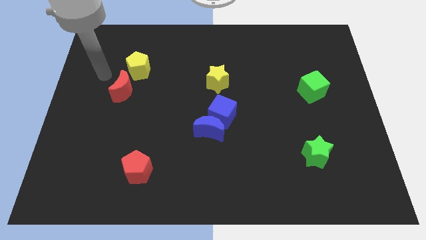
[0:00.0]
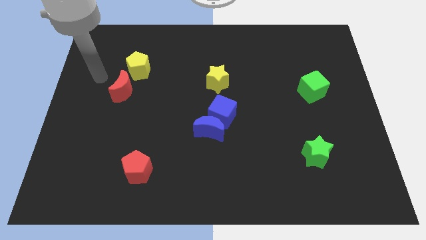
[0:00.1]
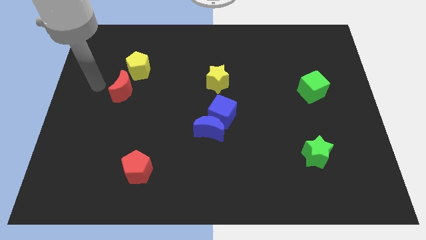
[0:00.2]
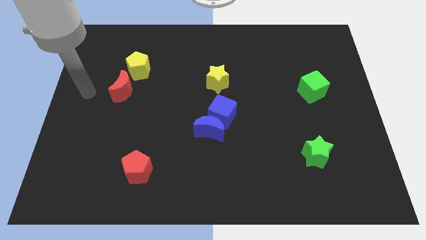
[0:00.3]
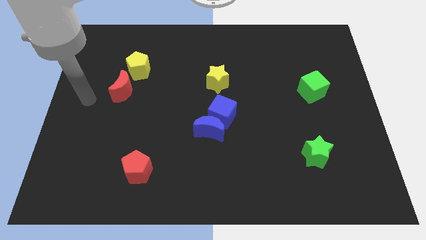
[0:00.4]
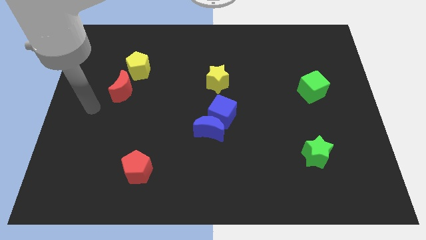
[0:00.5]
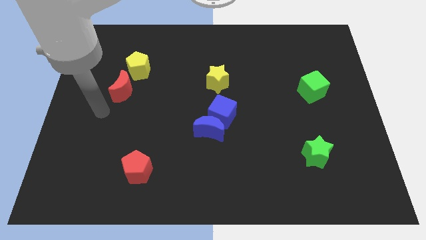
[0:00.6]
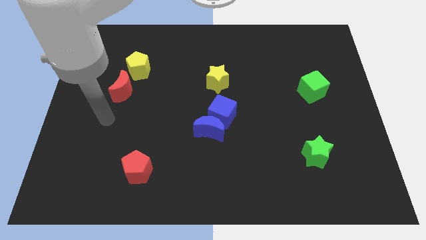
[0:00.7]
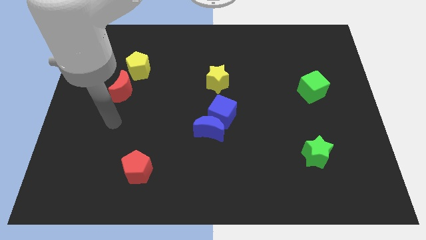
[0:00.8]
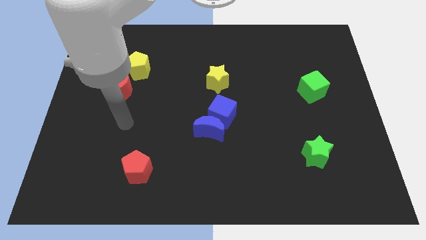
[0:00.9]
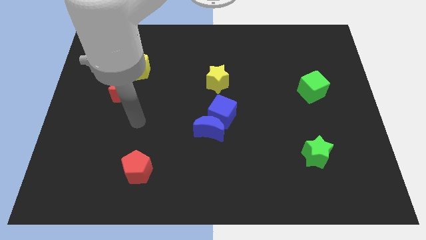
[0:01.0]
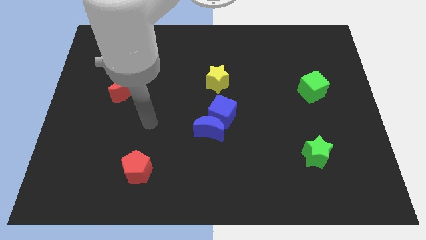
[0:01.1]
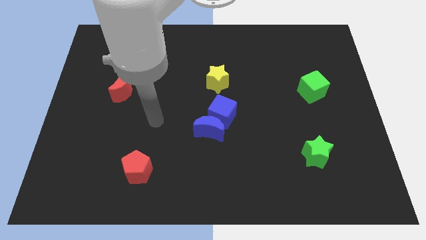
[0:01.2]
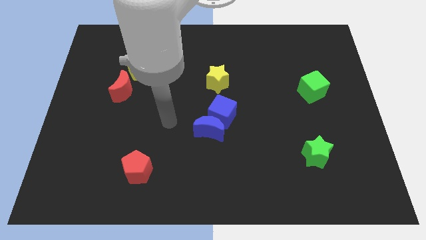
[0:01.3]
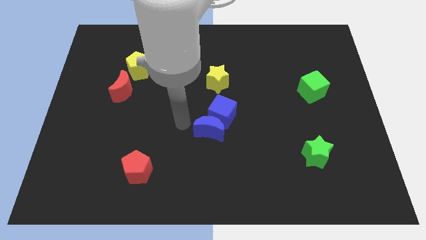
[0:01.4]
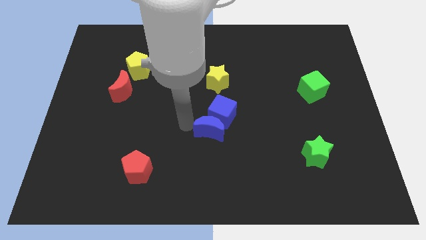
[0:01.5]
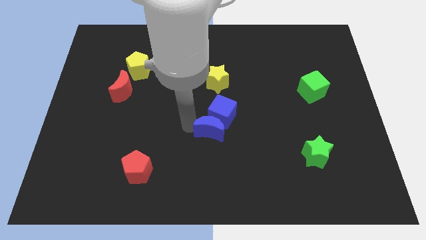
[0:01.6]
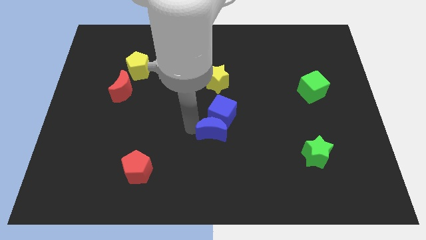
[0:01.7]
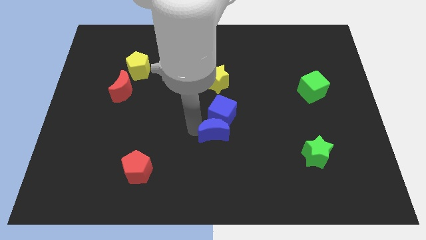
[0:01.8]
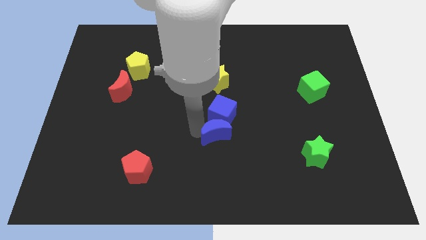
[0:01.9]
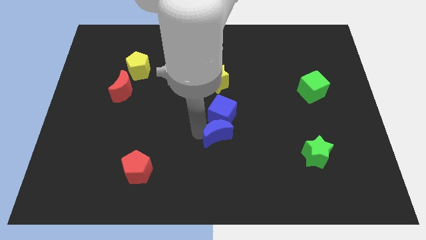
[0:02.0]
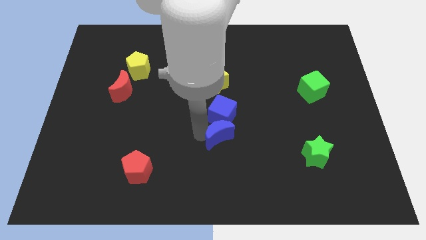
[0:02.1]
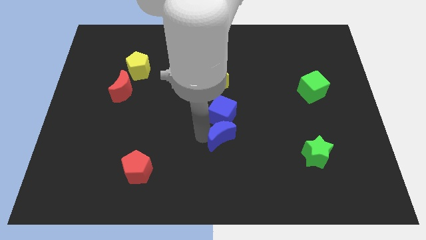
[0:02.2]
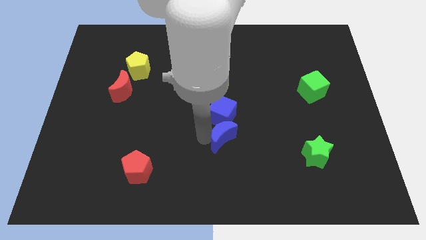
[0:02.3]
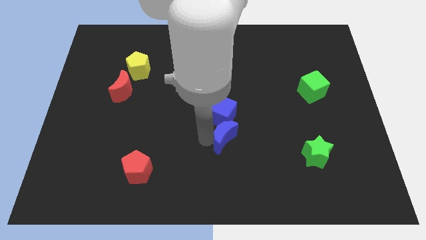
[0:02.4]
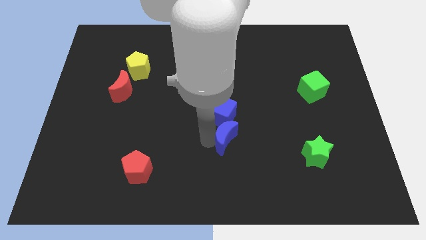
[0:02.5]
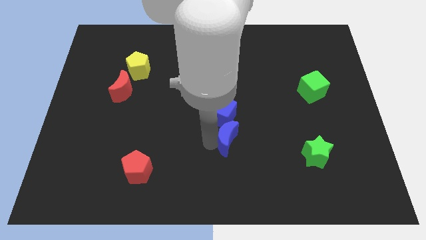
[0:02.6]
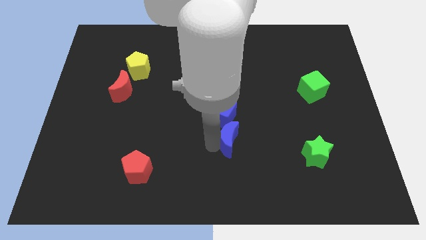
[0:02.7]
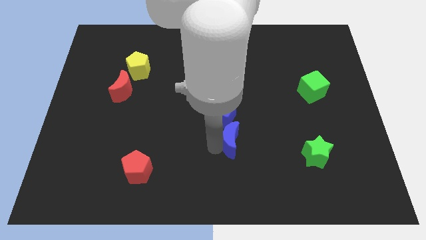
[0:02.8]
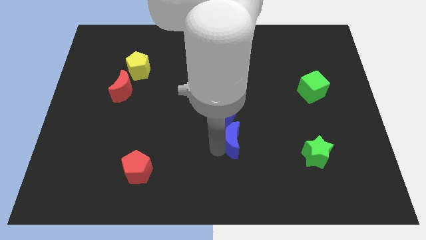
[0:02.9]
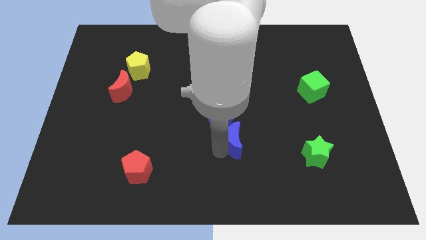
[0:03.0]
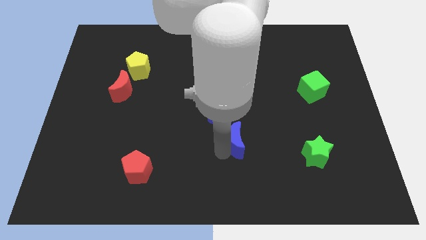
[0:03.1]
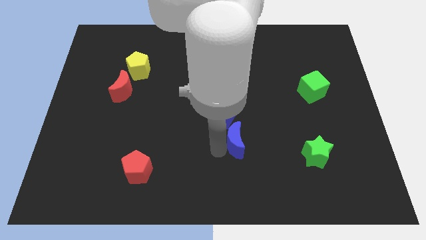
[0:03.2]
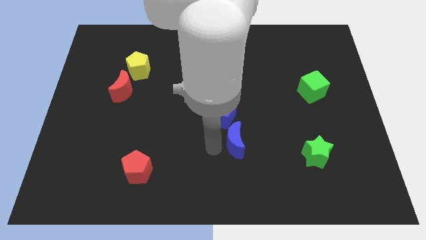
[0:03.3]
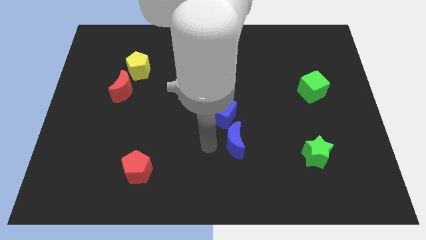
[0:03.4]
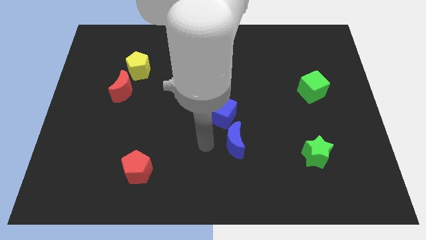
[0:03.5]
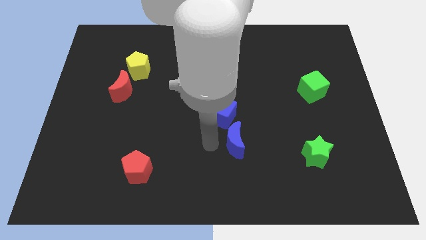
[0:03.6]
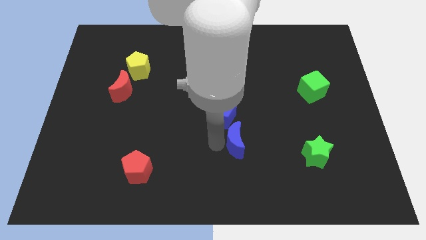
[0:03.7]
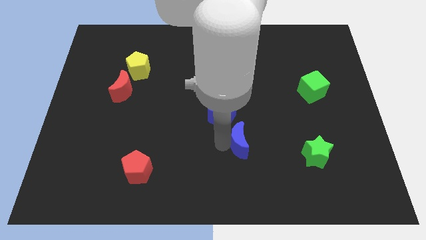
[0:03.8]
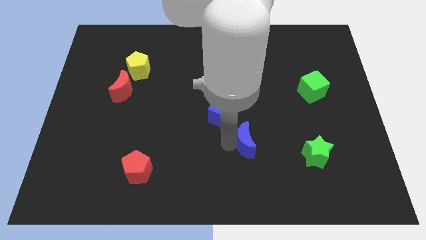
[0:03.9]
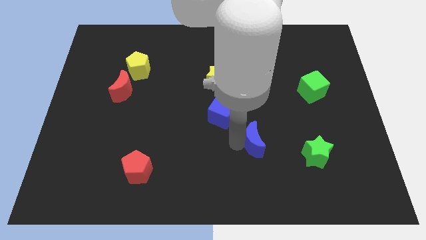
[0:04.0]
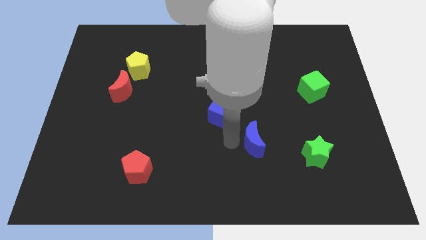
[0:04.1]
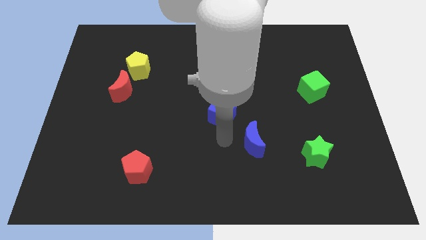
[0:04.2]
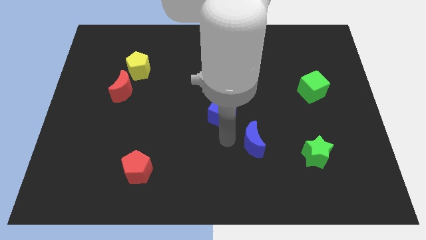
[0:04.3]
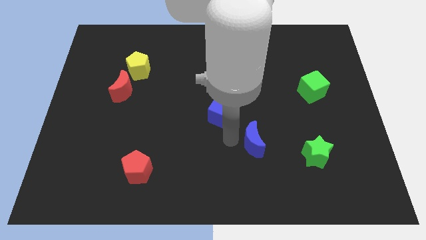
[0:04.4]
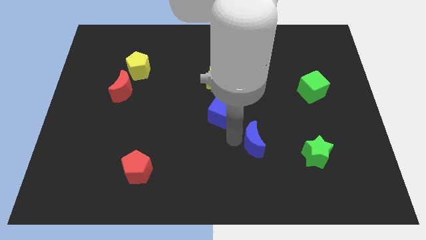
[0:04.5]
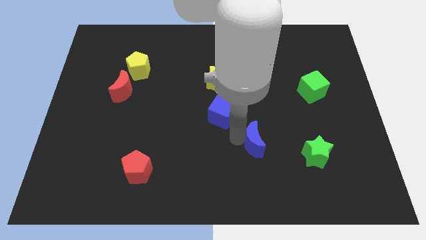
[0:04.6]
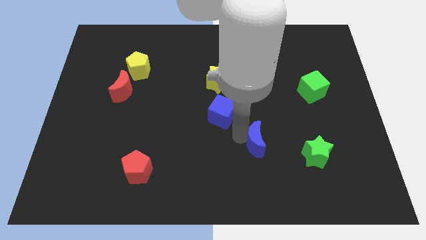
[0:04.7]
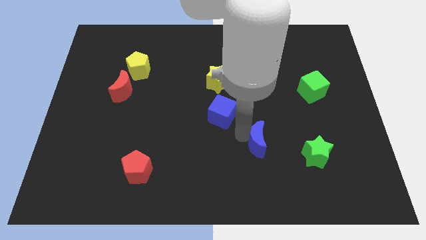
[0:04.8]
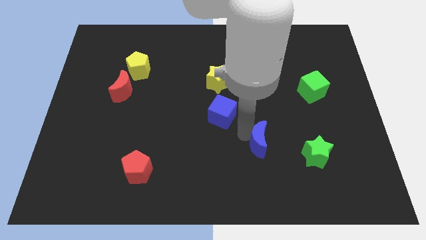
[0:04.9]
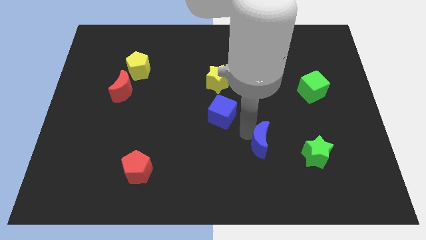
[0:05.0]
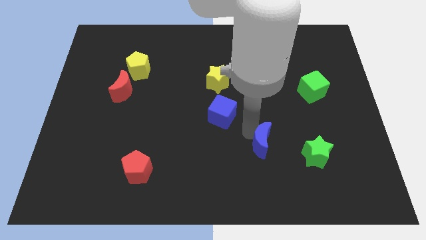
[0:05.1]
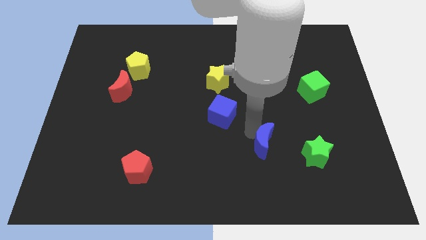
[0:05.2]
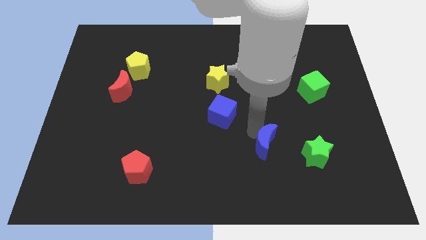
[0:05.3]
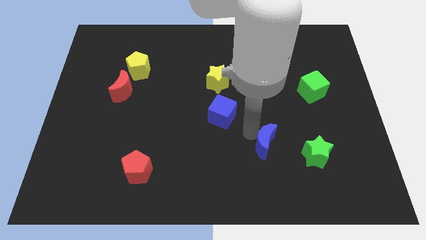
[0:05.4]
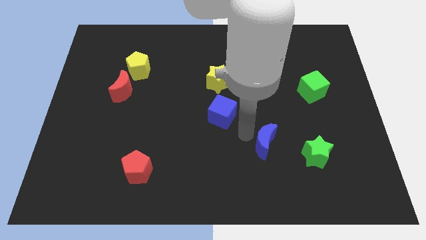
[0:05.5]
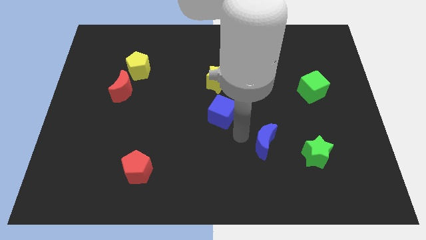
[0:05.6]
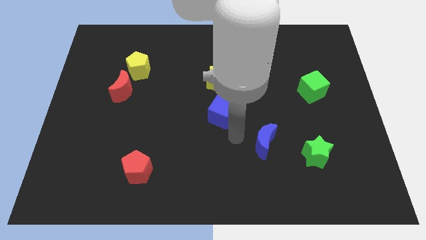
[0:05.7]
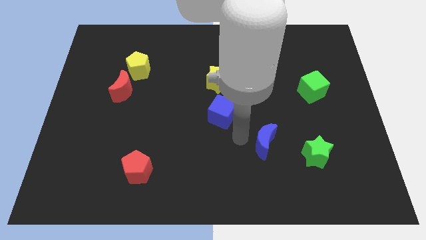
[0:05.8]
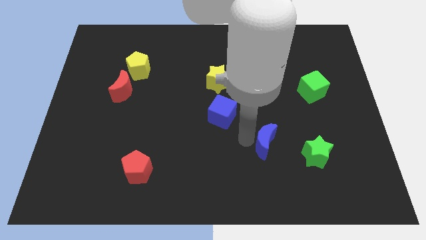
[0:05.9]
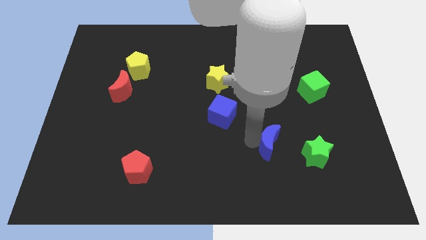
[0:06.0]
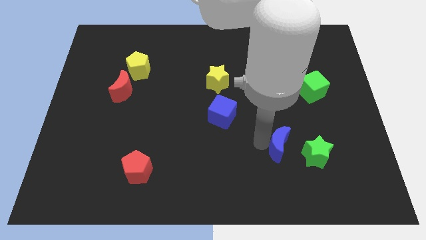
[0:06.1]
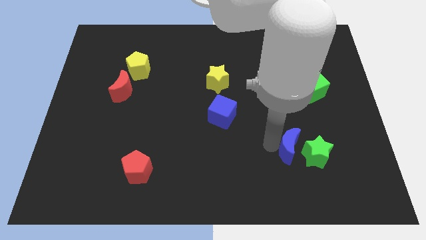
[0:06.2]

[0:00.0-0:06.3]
slide the blue moon to the green star

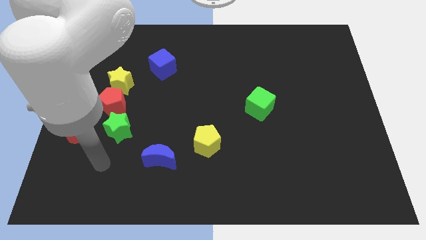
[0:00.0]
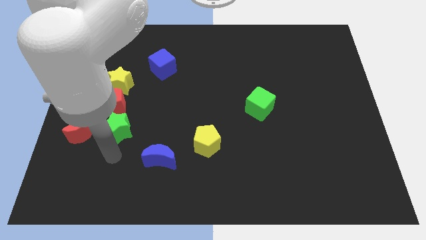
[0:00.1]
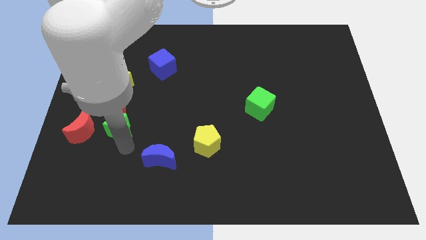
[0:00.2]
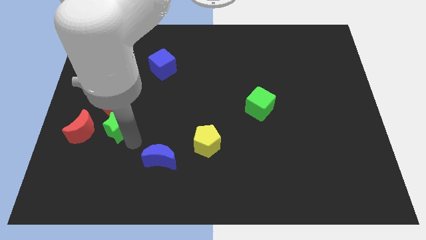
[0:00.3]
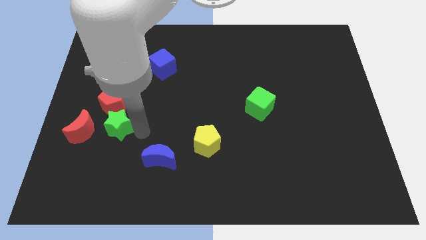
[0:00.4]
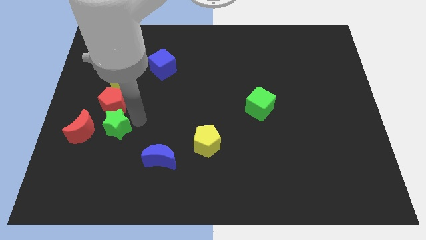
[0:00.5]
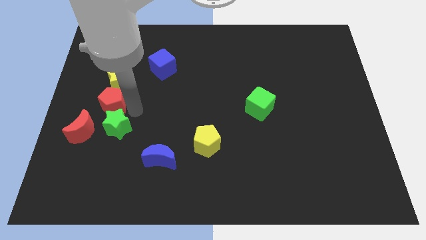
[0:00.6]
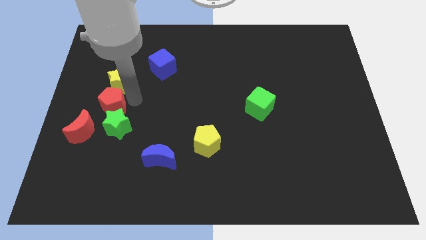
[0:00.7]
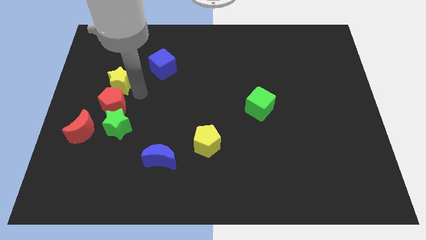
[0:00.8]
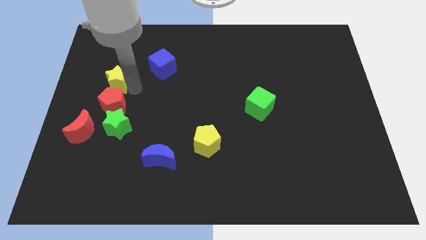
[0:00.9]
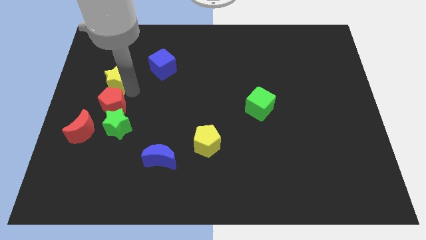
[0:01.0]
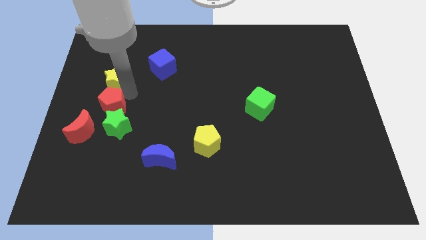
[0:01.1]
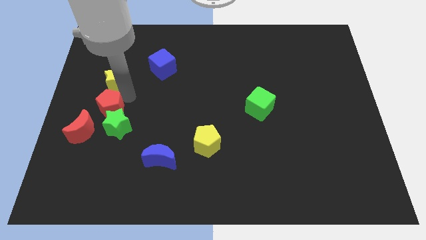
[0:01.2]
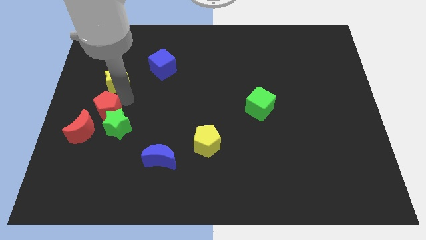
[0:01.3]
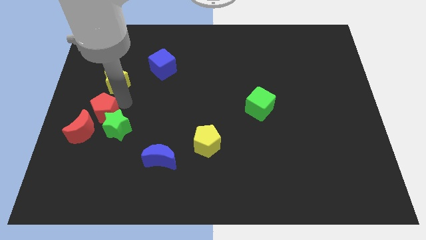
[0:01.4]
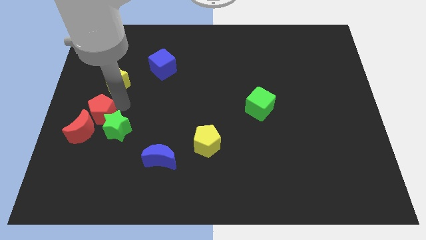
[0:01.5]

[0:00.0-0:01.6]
move the red pentagon towards the red moon
